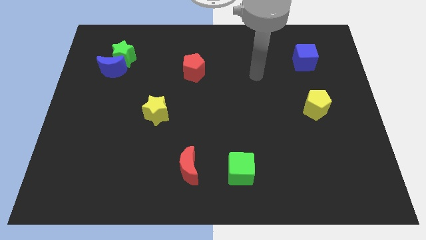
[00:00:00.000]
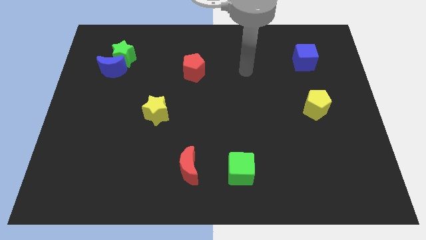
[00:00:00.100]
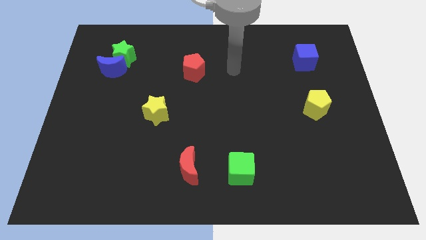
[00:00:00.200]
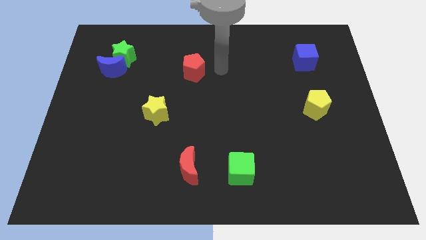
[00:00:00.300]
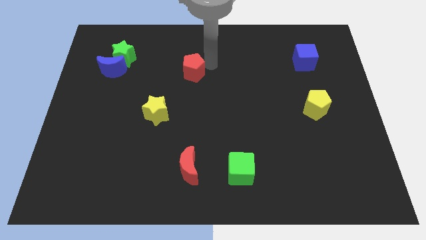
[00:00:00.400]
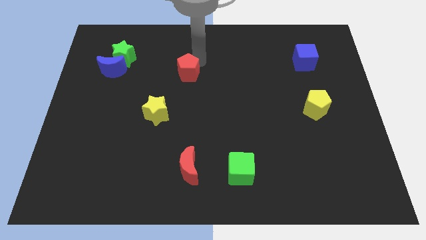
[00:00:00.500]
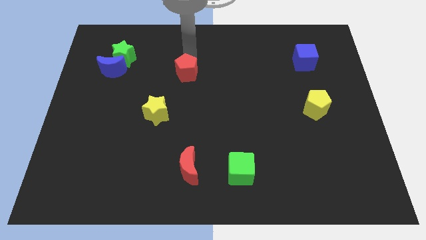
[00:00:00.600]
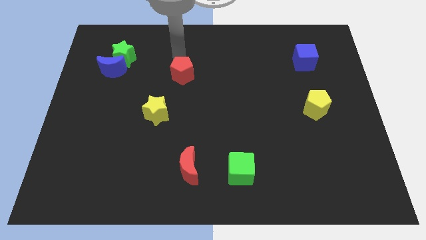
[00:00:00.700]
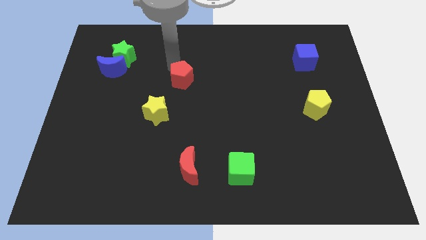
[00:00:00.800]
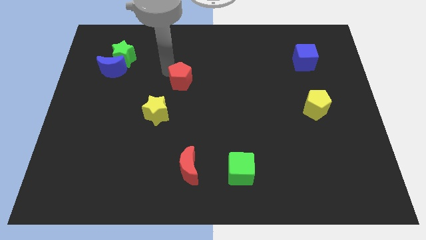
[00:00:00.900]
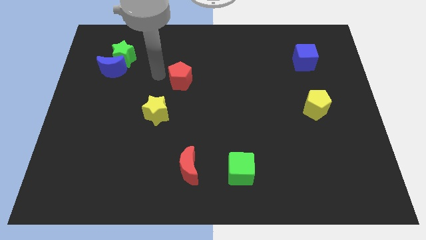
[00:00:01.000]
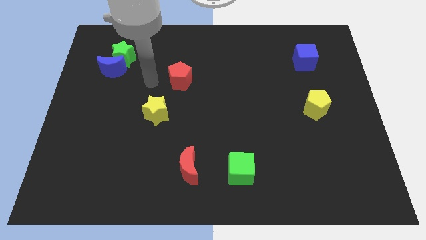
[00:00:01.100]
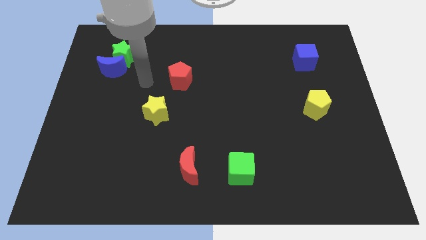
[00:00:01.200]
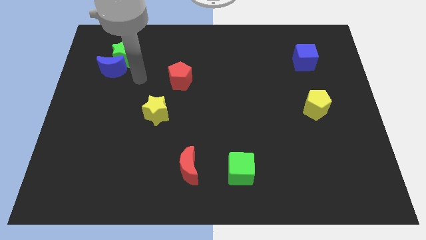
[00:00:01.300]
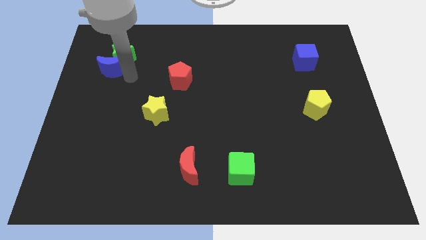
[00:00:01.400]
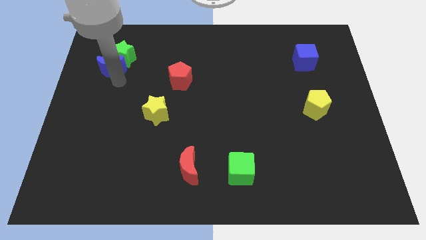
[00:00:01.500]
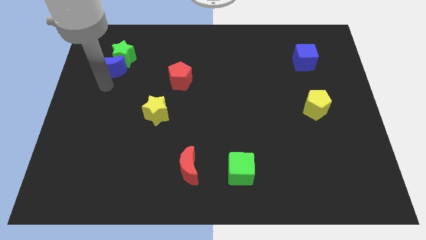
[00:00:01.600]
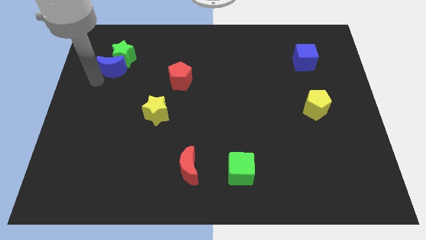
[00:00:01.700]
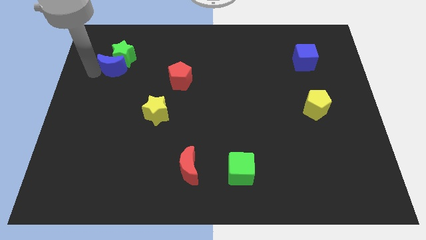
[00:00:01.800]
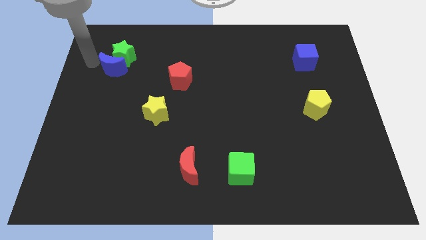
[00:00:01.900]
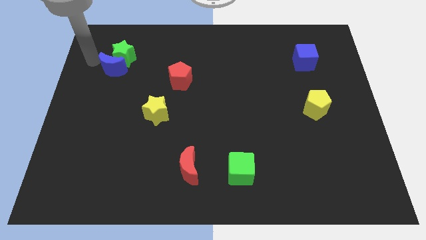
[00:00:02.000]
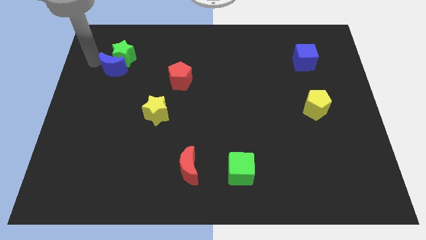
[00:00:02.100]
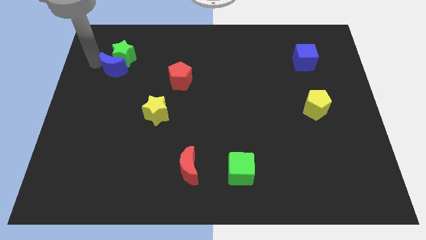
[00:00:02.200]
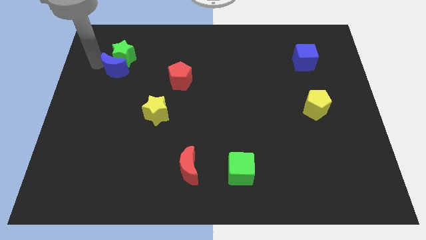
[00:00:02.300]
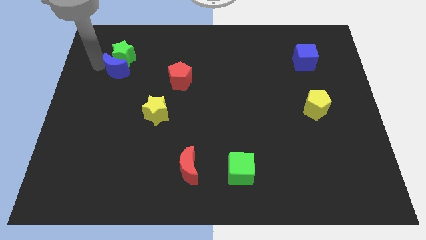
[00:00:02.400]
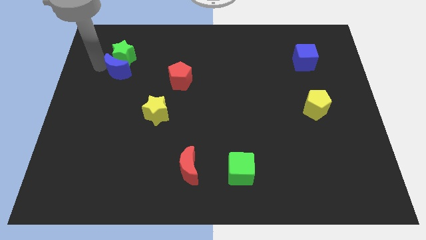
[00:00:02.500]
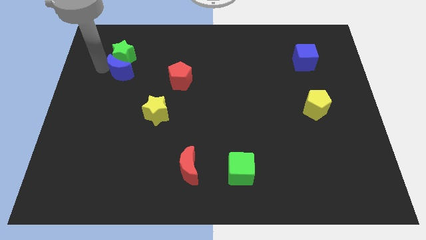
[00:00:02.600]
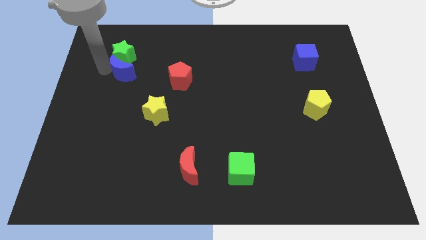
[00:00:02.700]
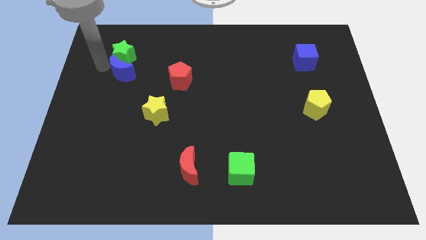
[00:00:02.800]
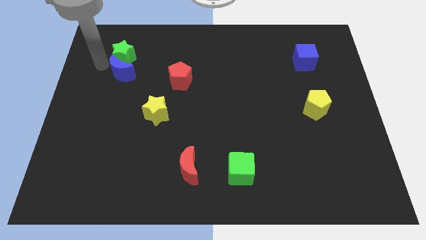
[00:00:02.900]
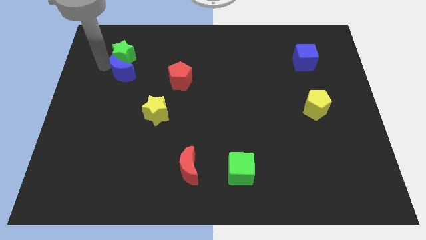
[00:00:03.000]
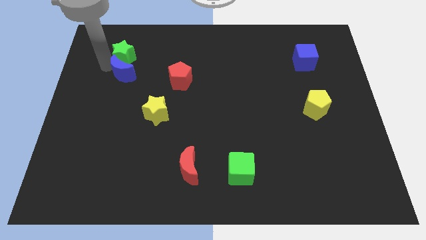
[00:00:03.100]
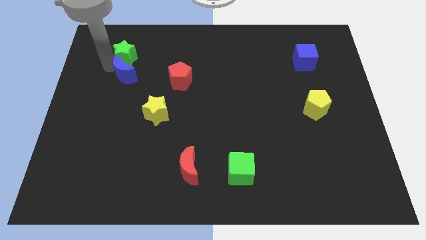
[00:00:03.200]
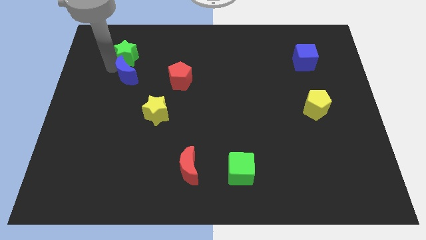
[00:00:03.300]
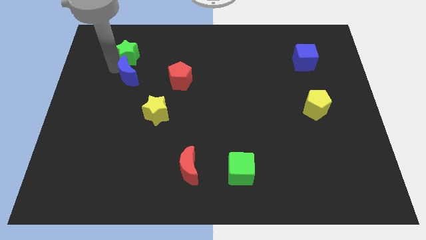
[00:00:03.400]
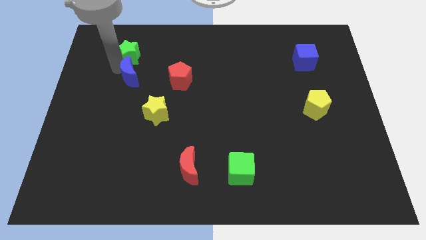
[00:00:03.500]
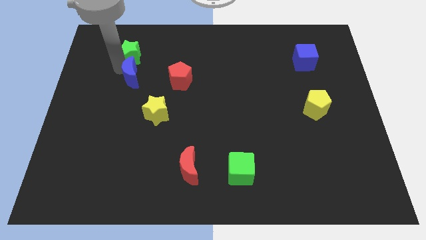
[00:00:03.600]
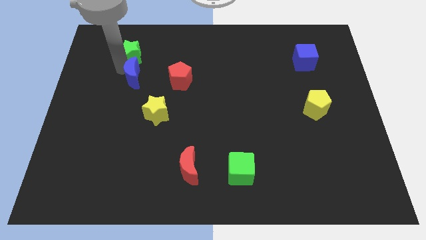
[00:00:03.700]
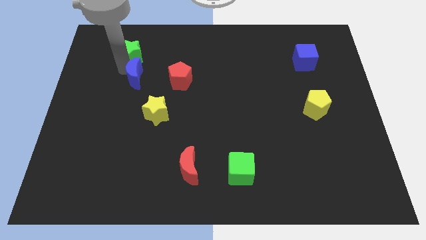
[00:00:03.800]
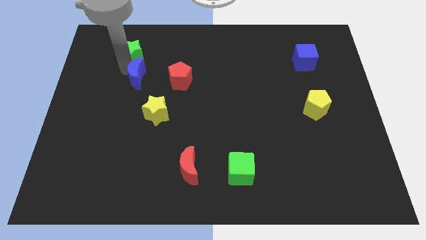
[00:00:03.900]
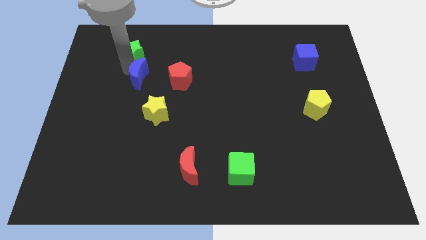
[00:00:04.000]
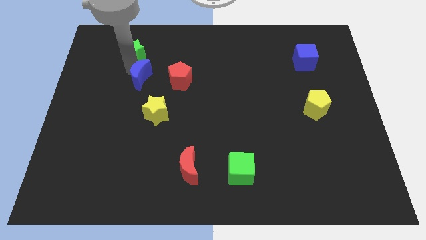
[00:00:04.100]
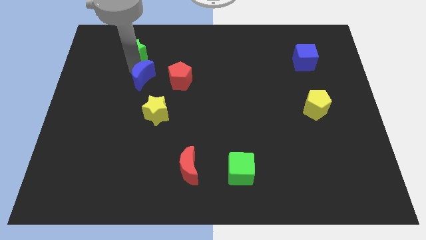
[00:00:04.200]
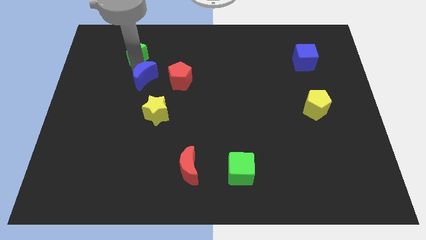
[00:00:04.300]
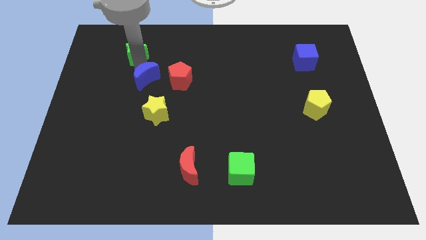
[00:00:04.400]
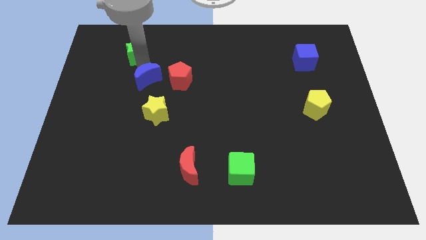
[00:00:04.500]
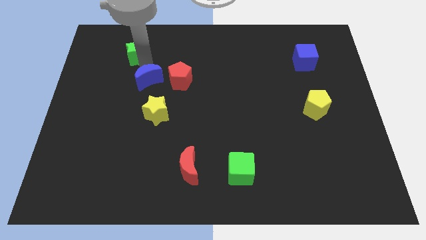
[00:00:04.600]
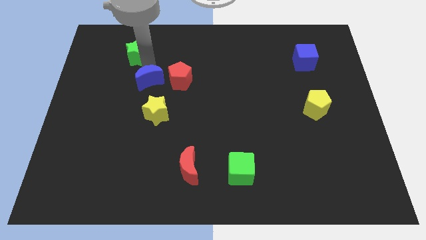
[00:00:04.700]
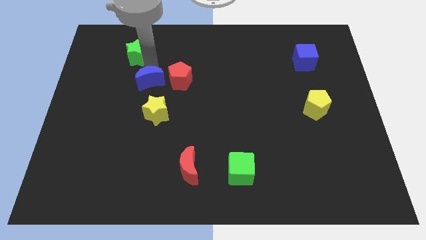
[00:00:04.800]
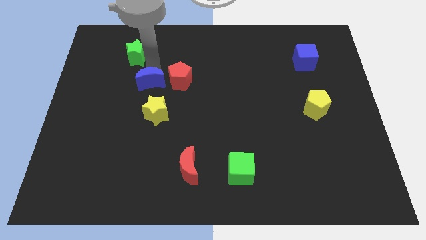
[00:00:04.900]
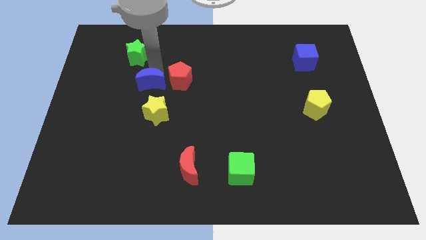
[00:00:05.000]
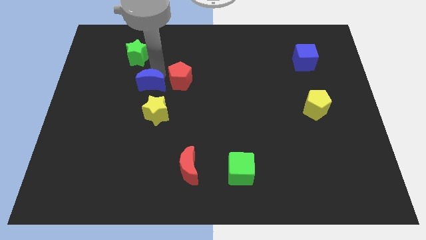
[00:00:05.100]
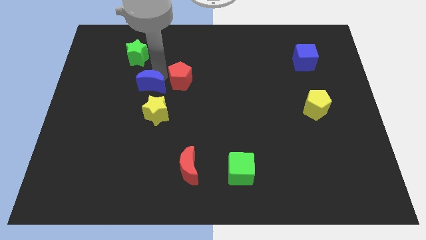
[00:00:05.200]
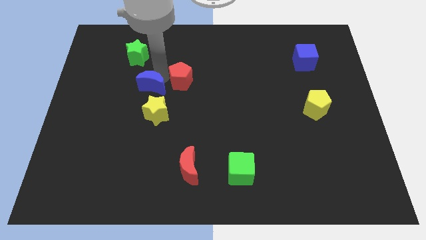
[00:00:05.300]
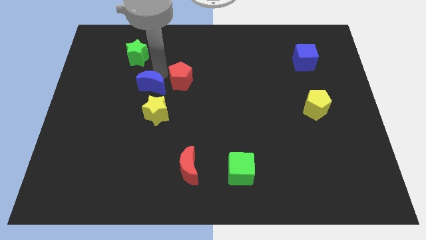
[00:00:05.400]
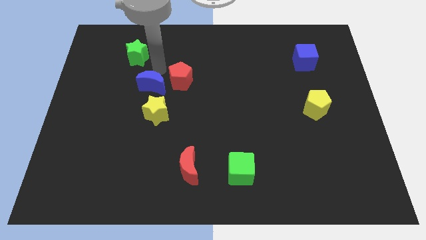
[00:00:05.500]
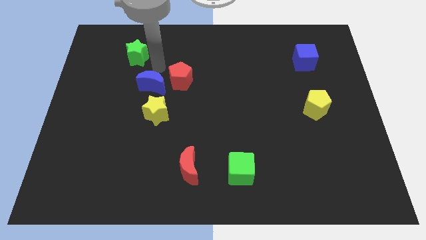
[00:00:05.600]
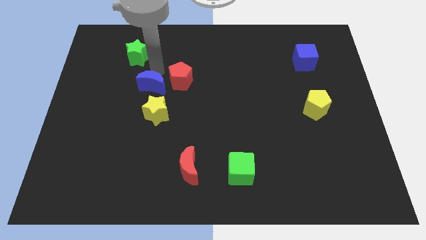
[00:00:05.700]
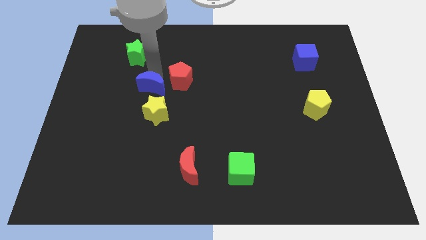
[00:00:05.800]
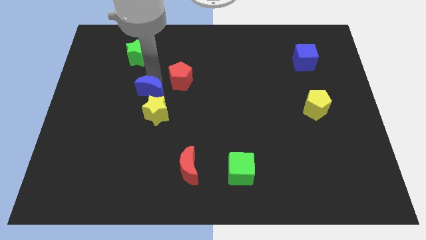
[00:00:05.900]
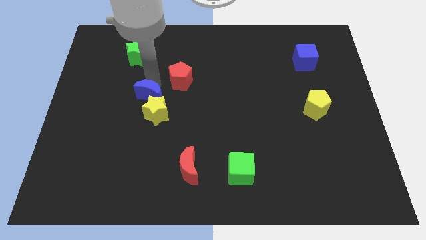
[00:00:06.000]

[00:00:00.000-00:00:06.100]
put the blue moon next to the yellow star

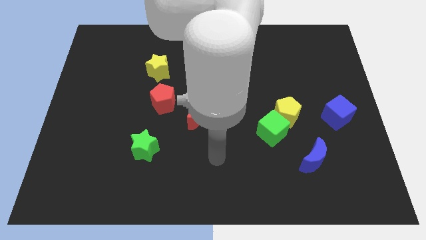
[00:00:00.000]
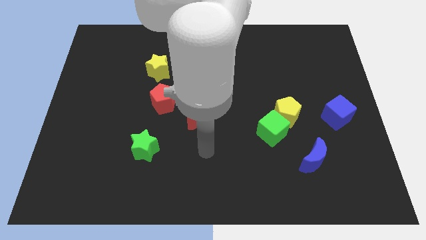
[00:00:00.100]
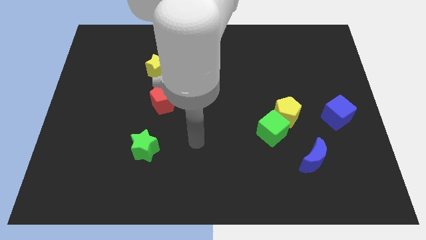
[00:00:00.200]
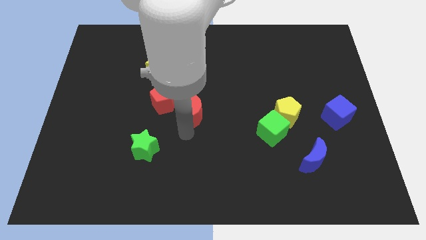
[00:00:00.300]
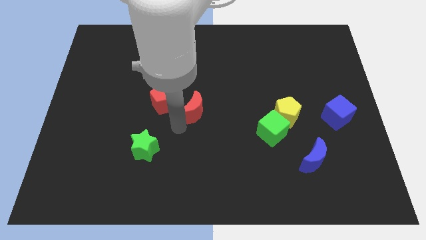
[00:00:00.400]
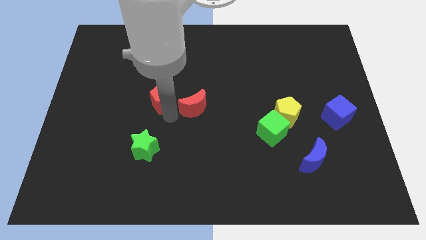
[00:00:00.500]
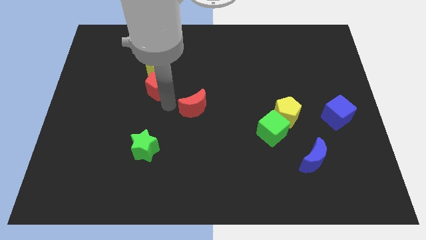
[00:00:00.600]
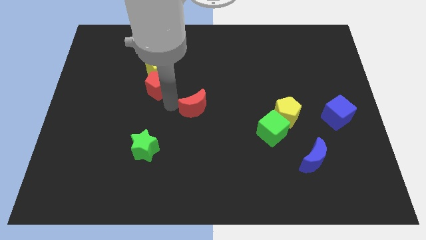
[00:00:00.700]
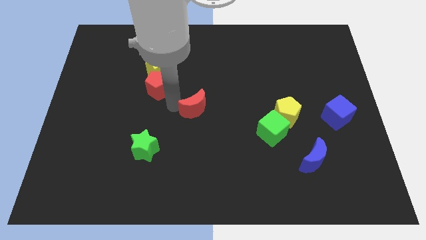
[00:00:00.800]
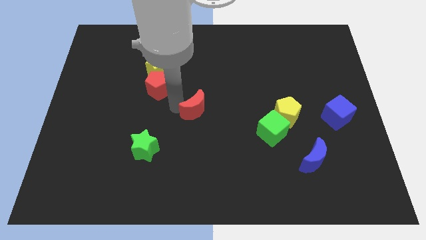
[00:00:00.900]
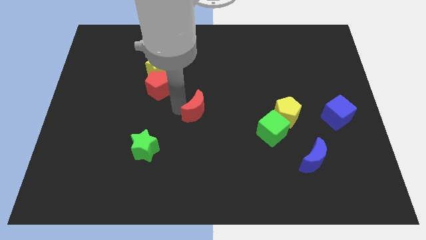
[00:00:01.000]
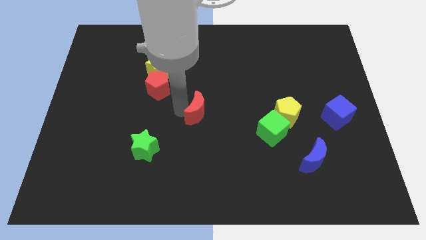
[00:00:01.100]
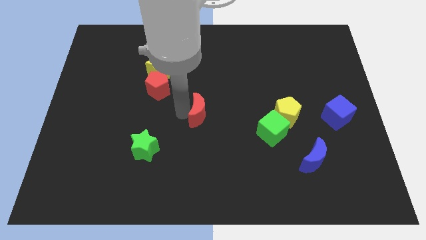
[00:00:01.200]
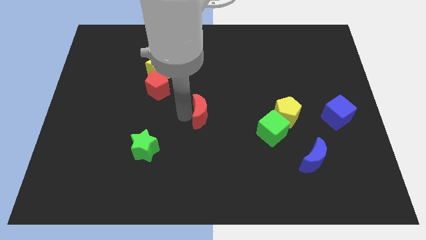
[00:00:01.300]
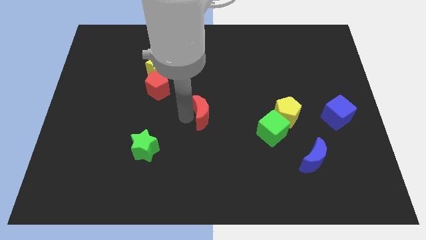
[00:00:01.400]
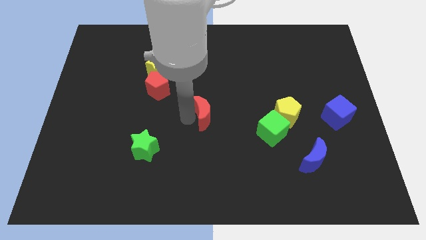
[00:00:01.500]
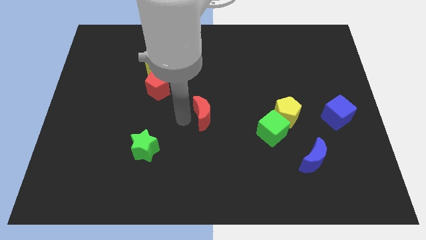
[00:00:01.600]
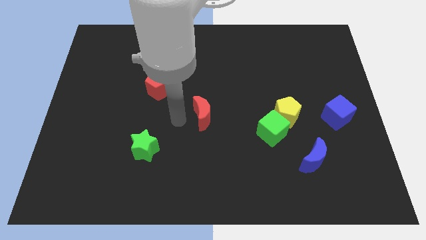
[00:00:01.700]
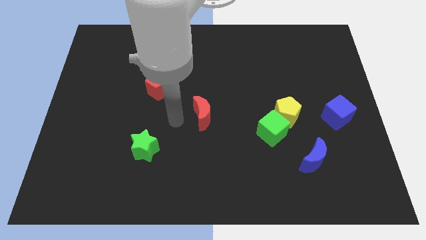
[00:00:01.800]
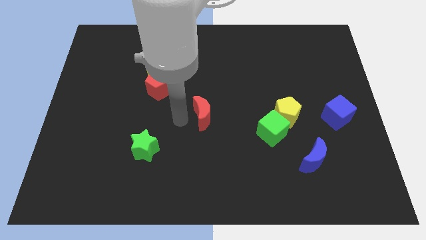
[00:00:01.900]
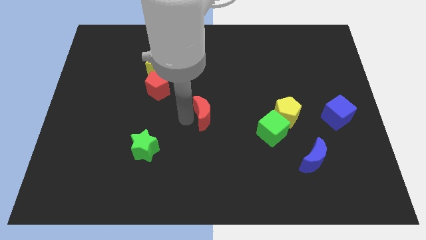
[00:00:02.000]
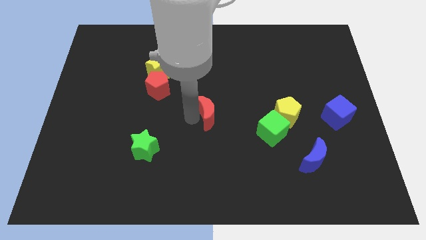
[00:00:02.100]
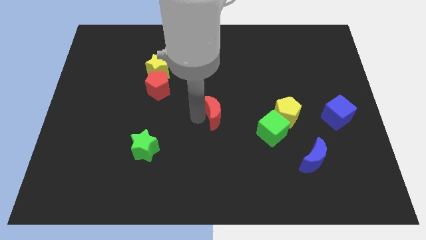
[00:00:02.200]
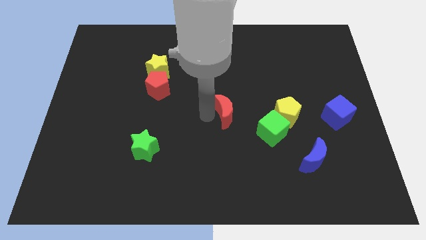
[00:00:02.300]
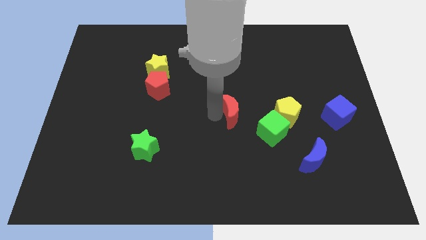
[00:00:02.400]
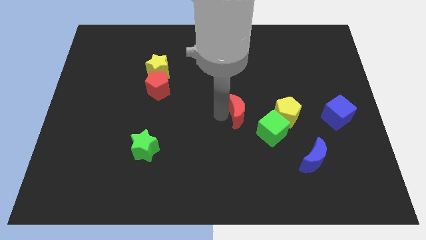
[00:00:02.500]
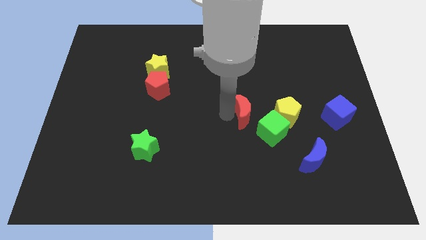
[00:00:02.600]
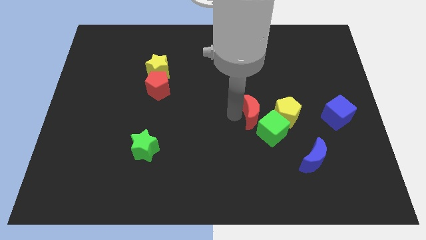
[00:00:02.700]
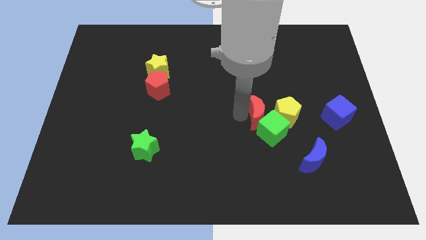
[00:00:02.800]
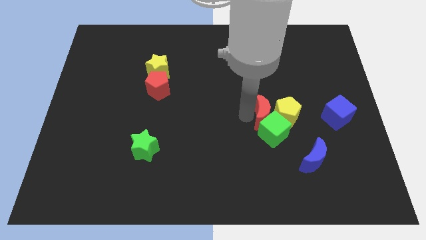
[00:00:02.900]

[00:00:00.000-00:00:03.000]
put the red moon close to the yellow pentagon
